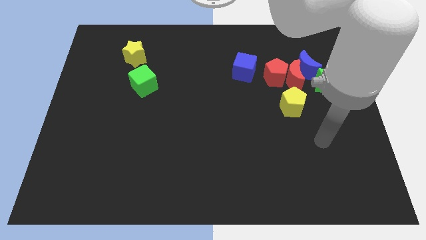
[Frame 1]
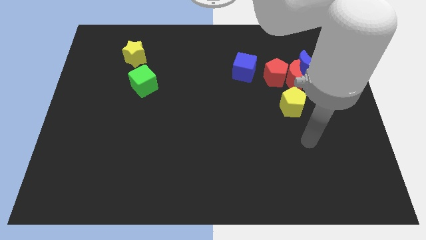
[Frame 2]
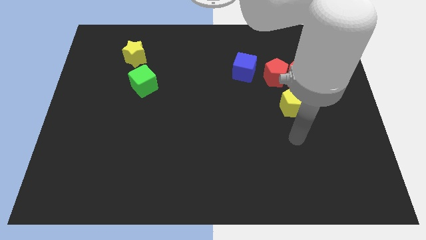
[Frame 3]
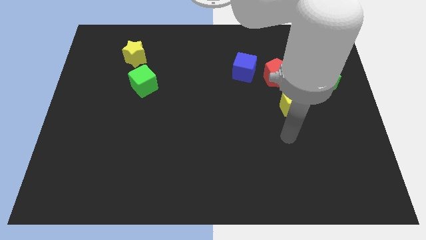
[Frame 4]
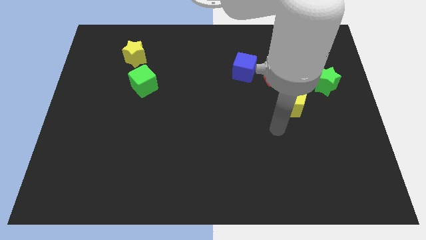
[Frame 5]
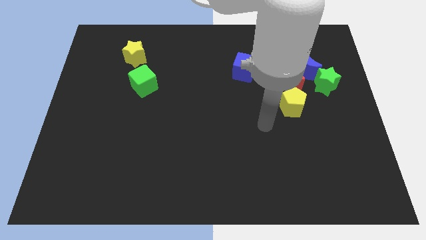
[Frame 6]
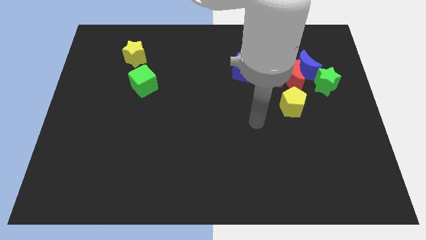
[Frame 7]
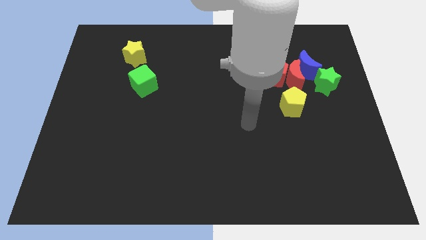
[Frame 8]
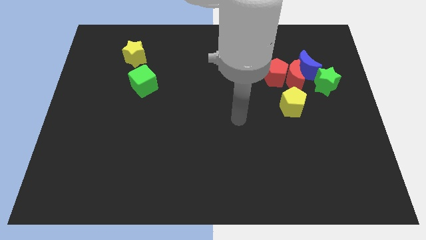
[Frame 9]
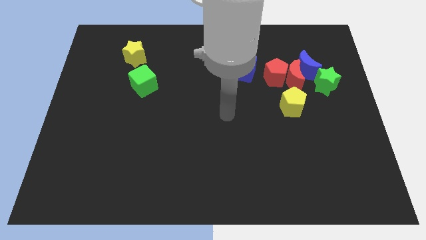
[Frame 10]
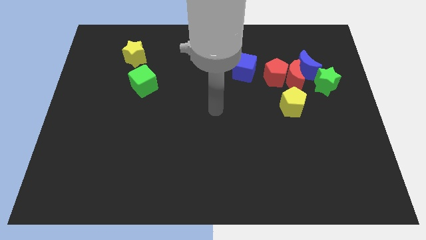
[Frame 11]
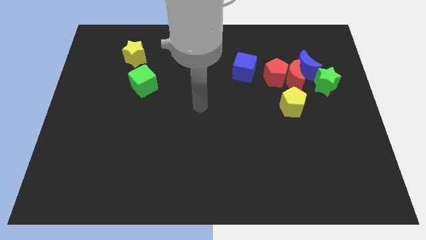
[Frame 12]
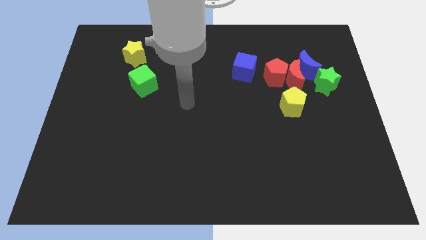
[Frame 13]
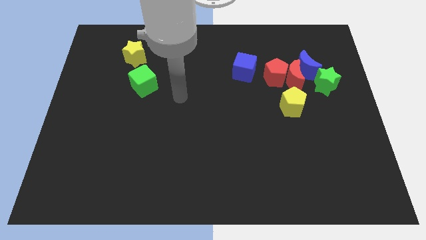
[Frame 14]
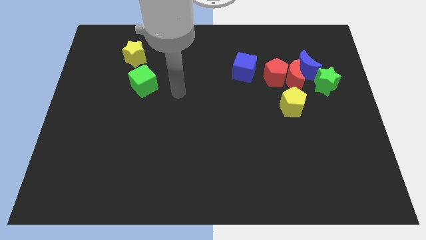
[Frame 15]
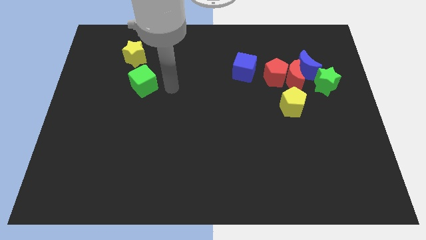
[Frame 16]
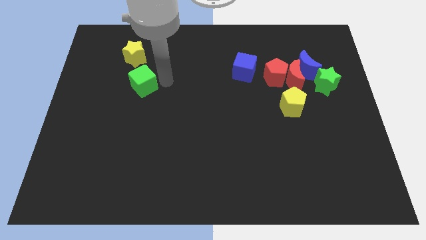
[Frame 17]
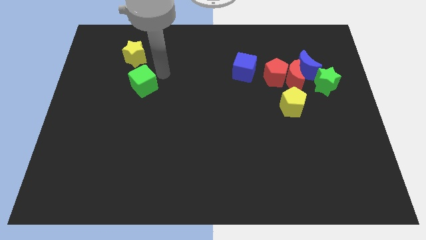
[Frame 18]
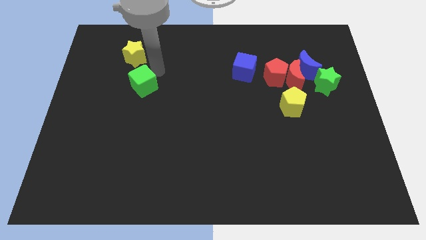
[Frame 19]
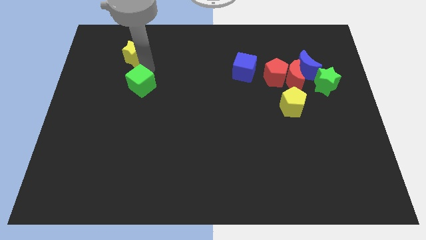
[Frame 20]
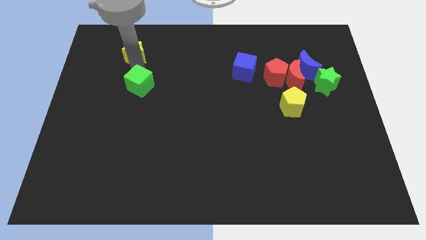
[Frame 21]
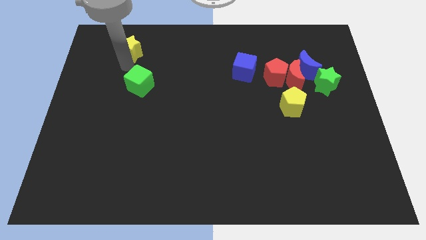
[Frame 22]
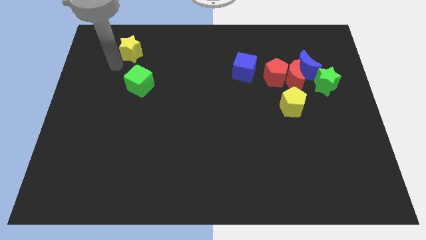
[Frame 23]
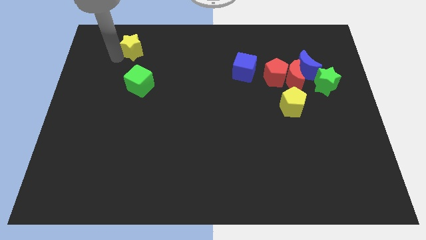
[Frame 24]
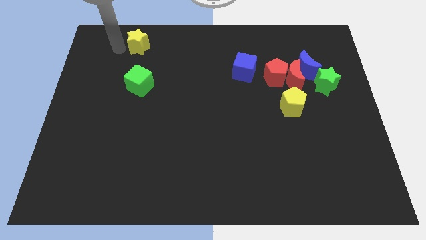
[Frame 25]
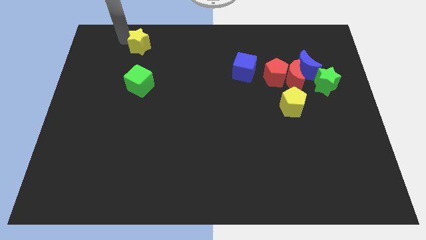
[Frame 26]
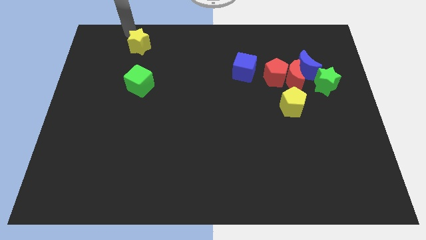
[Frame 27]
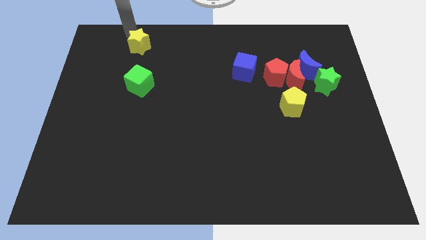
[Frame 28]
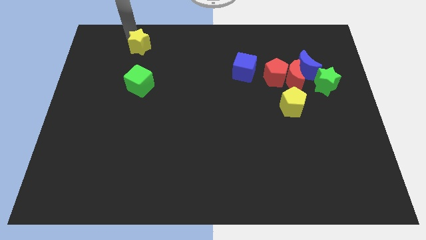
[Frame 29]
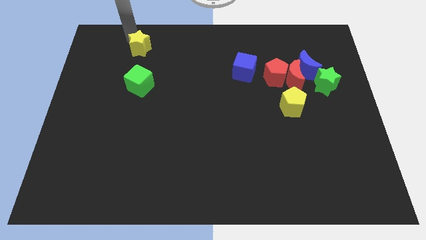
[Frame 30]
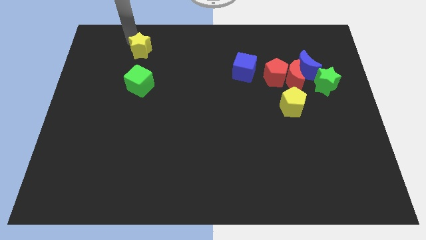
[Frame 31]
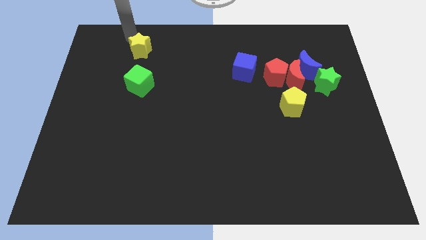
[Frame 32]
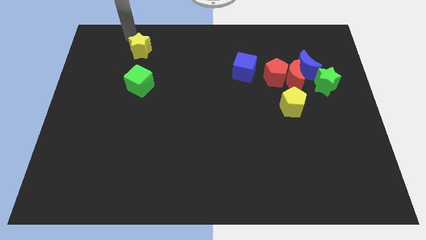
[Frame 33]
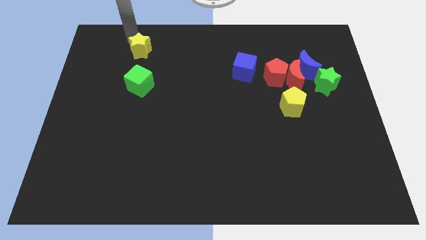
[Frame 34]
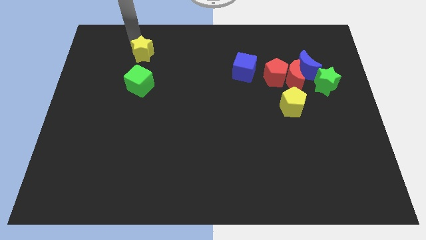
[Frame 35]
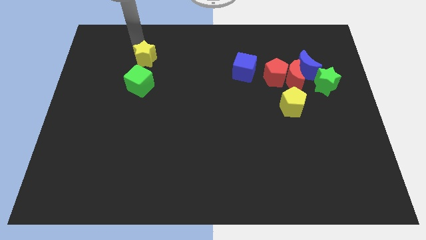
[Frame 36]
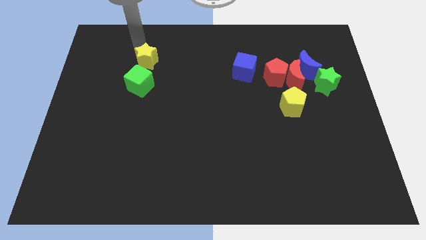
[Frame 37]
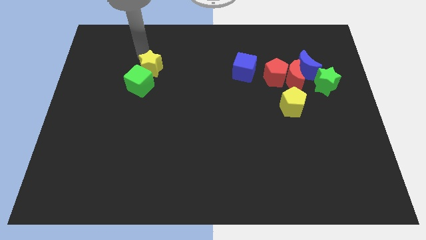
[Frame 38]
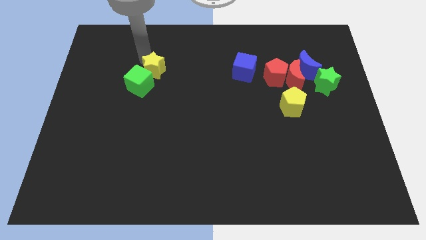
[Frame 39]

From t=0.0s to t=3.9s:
move the yellow star a little down and then to the right

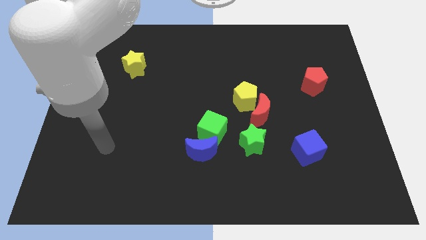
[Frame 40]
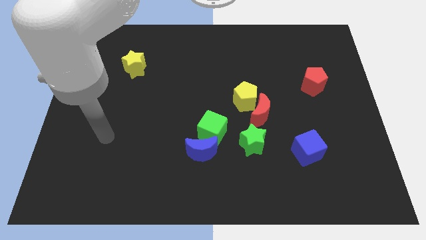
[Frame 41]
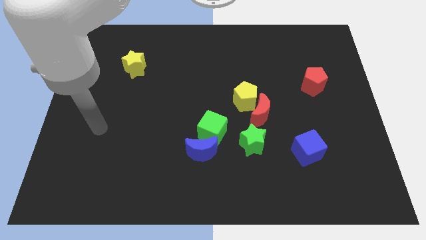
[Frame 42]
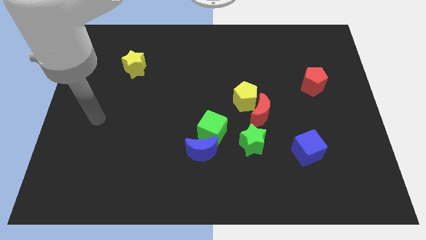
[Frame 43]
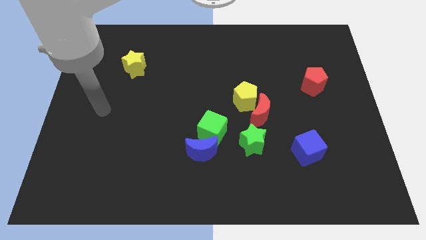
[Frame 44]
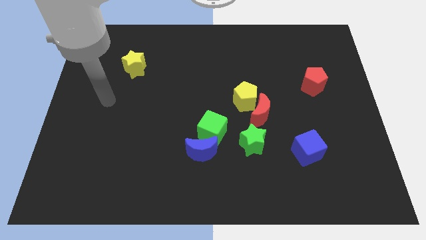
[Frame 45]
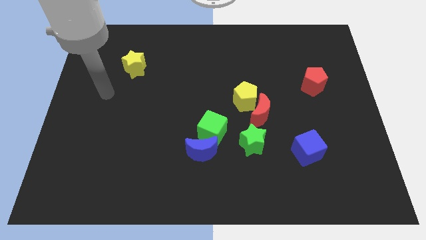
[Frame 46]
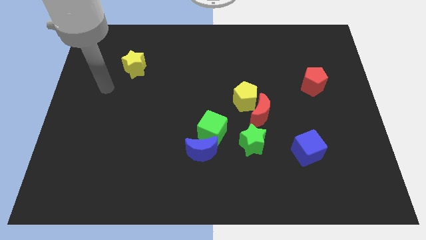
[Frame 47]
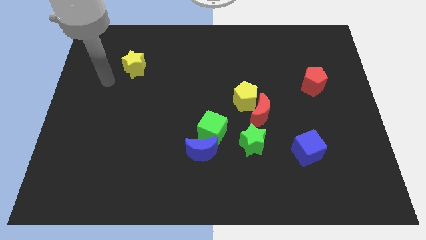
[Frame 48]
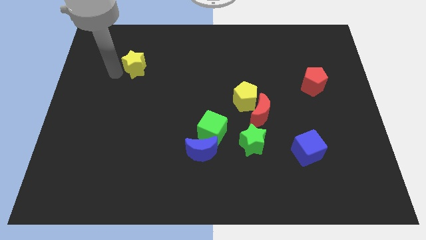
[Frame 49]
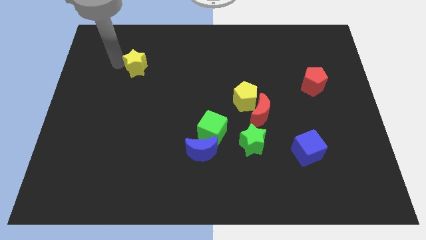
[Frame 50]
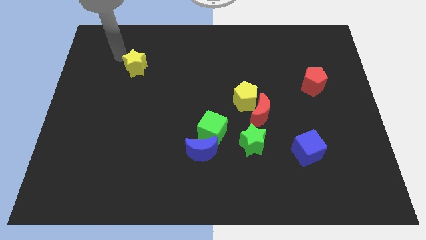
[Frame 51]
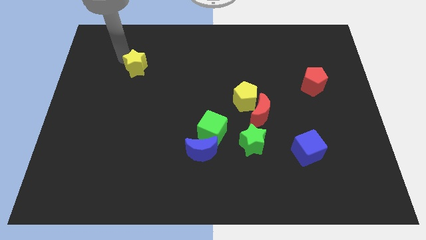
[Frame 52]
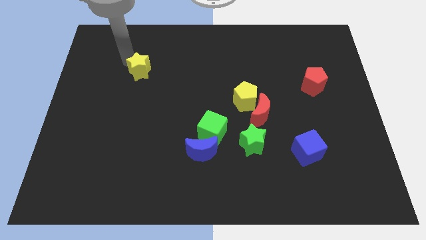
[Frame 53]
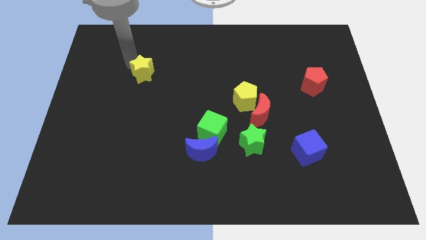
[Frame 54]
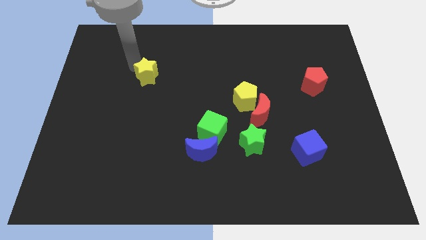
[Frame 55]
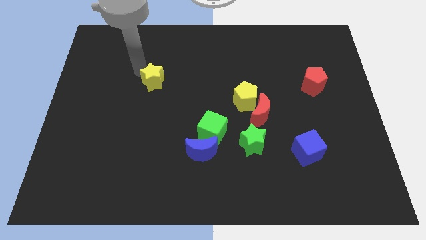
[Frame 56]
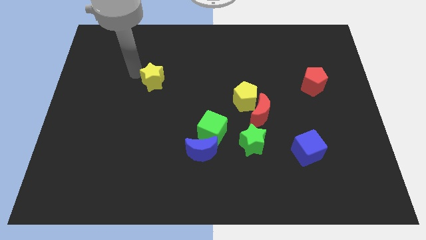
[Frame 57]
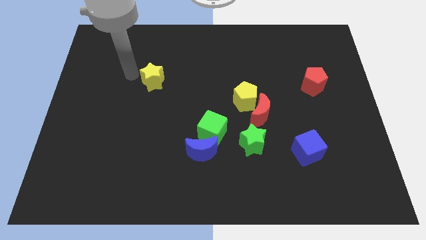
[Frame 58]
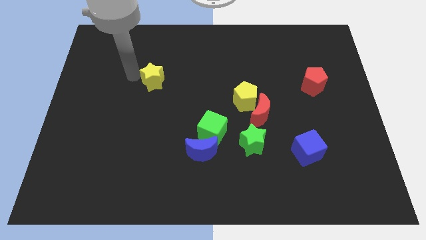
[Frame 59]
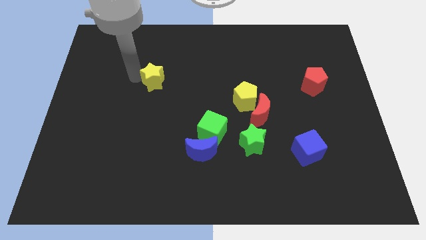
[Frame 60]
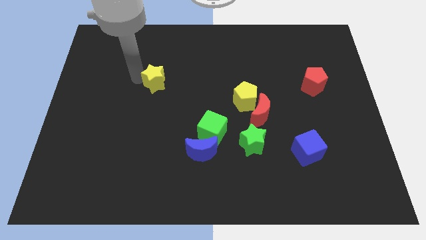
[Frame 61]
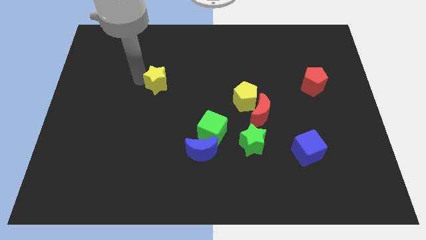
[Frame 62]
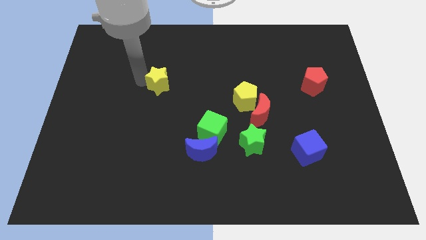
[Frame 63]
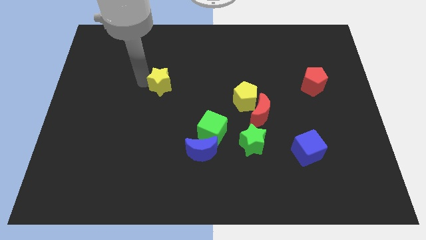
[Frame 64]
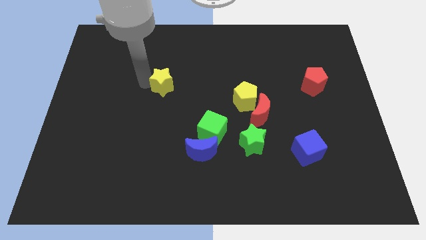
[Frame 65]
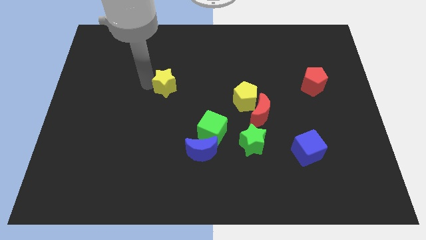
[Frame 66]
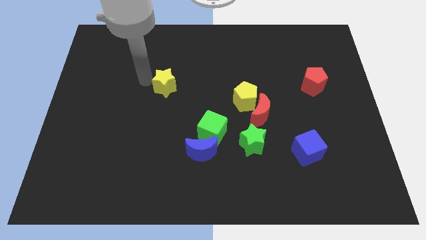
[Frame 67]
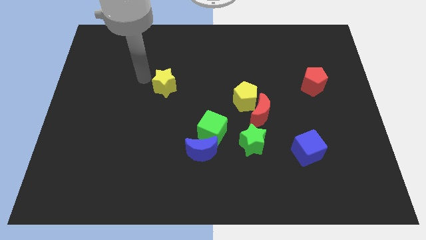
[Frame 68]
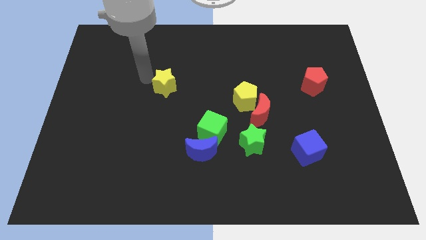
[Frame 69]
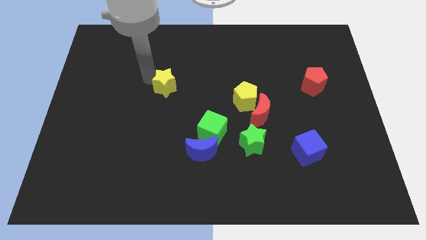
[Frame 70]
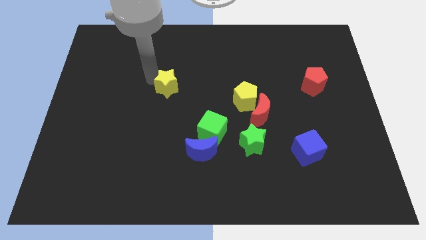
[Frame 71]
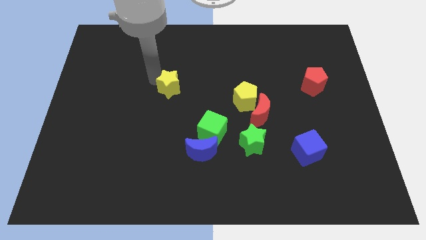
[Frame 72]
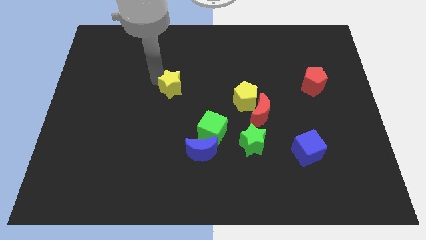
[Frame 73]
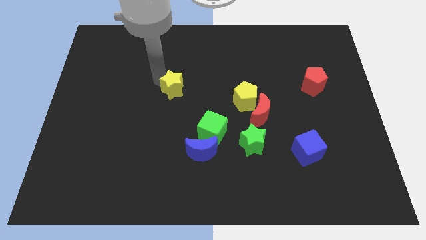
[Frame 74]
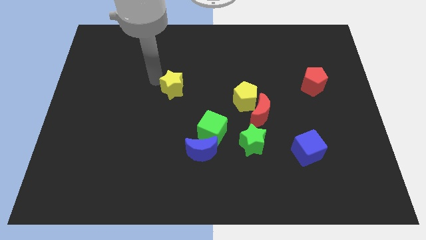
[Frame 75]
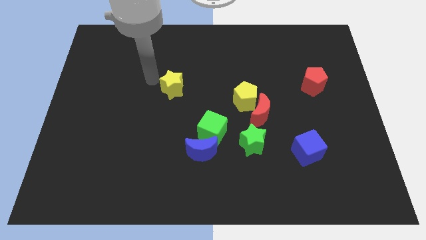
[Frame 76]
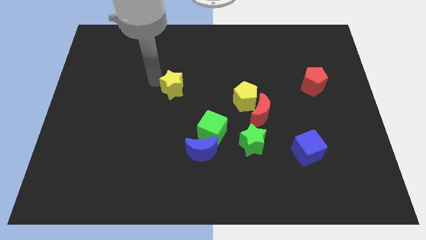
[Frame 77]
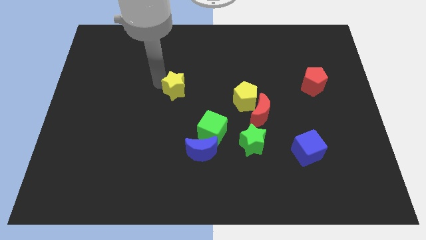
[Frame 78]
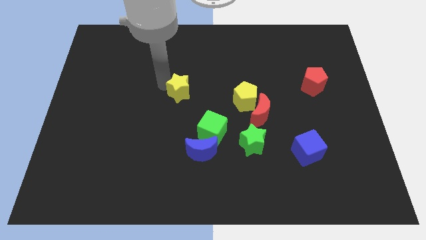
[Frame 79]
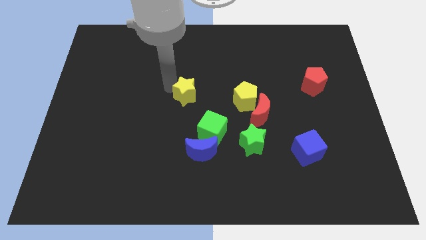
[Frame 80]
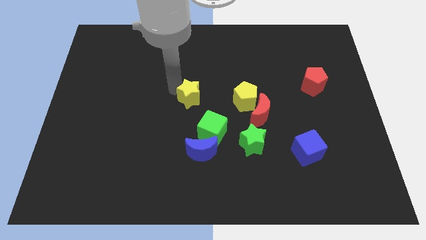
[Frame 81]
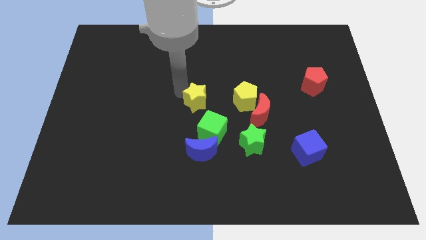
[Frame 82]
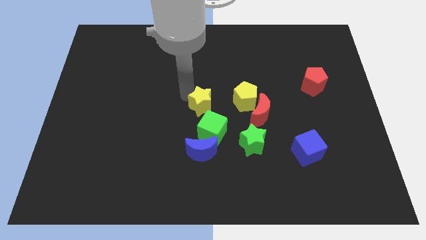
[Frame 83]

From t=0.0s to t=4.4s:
slide the yellow star down and right
